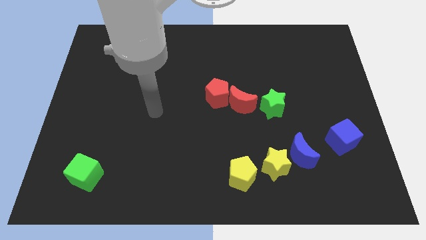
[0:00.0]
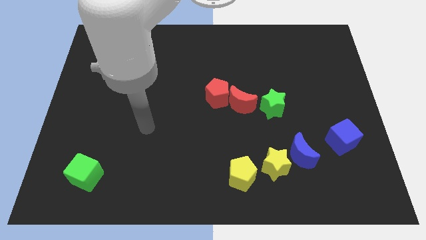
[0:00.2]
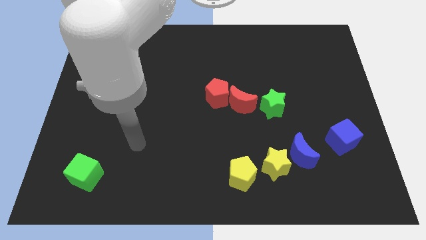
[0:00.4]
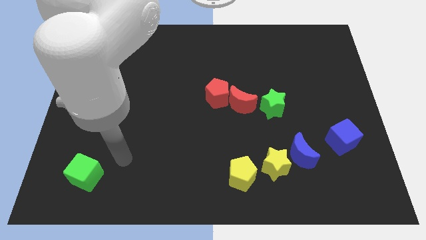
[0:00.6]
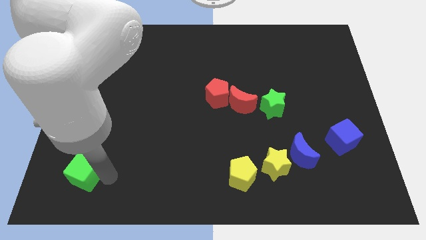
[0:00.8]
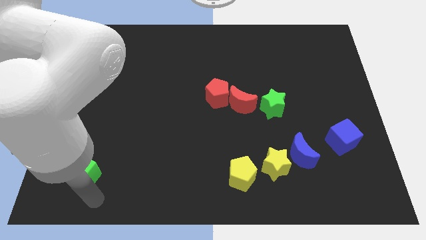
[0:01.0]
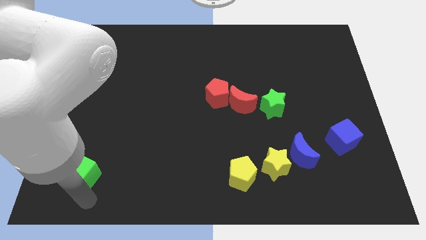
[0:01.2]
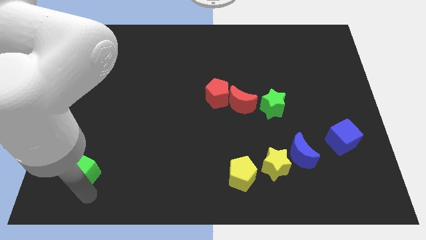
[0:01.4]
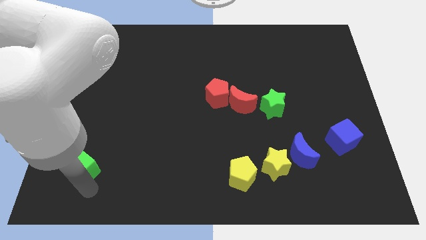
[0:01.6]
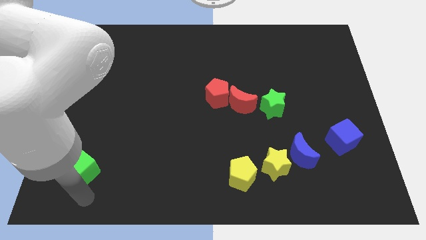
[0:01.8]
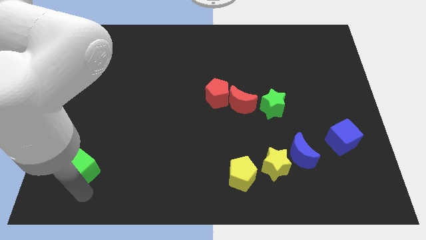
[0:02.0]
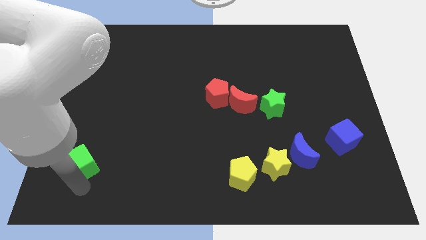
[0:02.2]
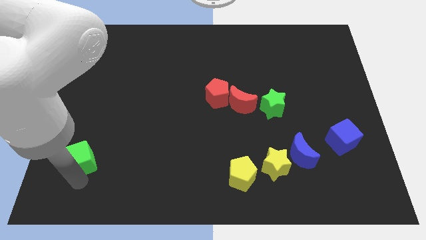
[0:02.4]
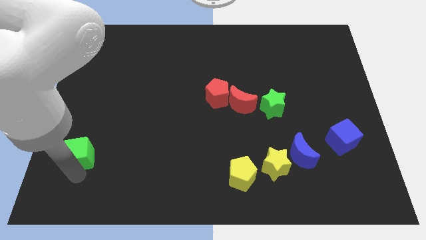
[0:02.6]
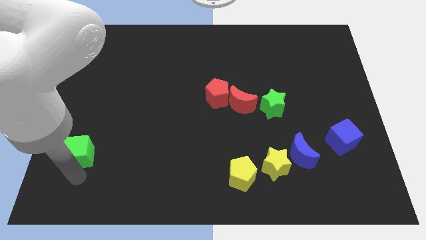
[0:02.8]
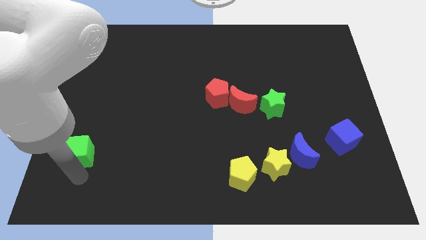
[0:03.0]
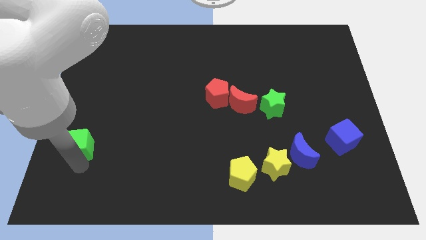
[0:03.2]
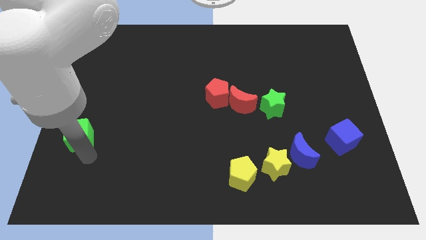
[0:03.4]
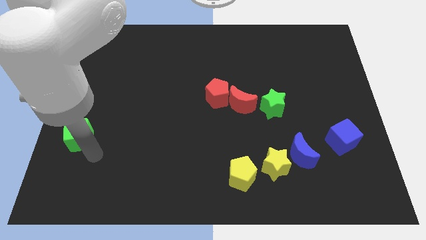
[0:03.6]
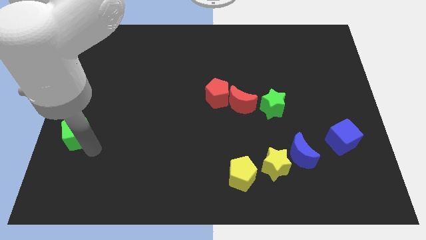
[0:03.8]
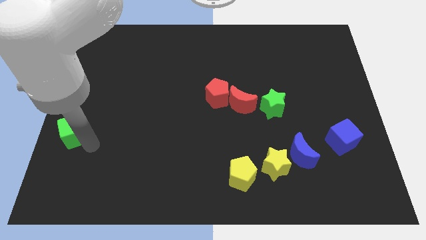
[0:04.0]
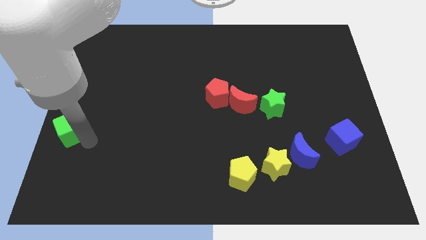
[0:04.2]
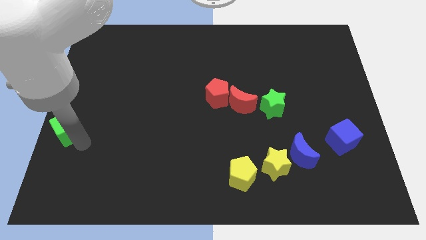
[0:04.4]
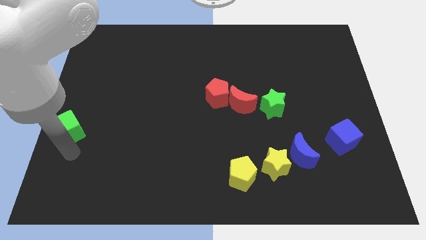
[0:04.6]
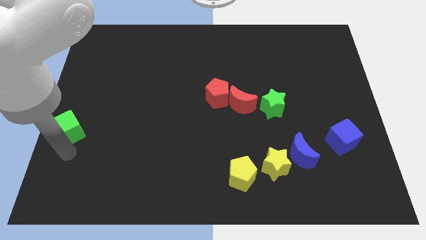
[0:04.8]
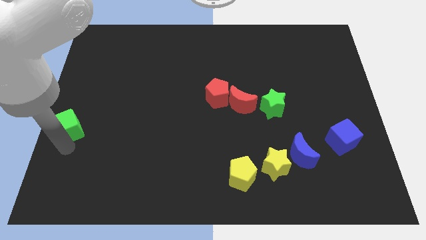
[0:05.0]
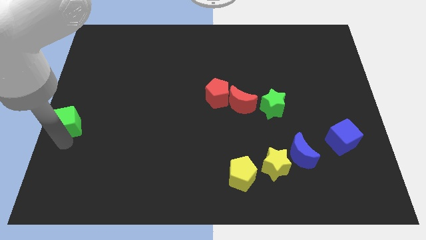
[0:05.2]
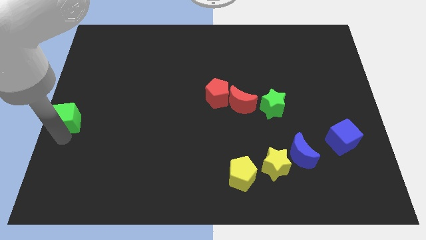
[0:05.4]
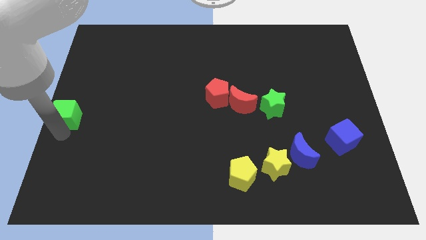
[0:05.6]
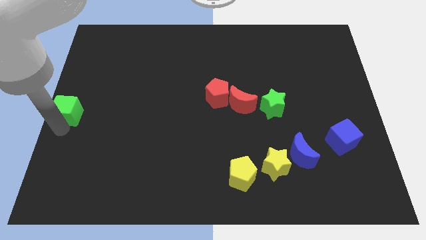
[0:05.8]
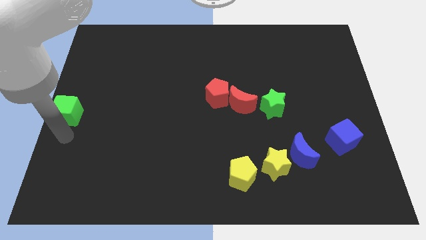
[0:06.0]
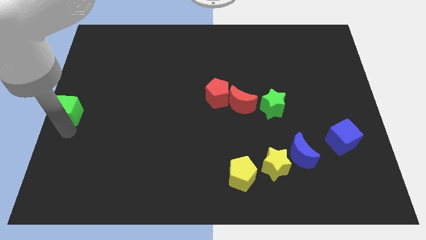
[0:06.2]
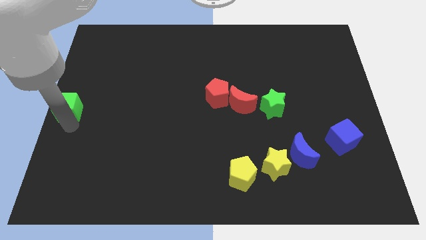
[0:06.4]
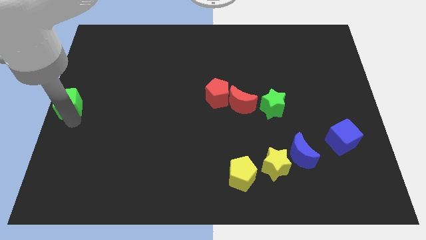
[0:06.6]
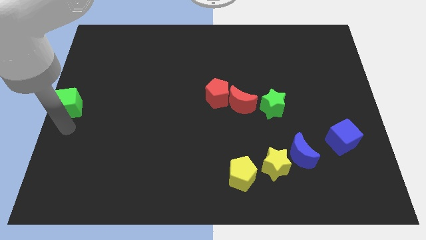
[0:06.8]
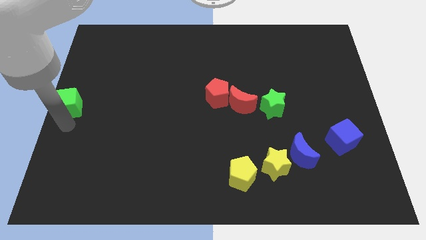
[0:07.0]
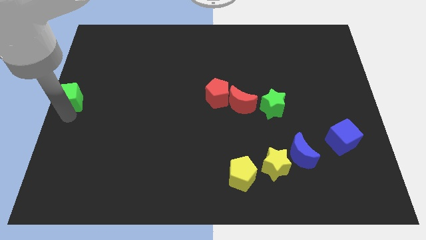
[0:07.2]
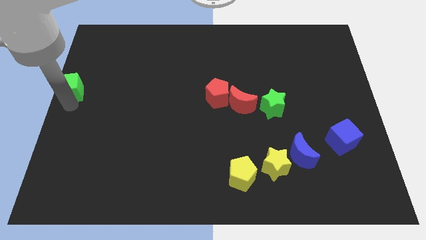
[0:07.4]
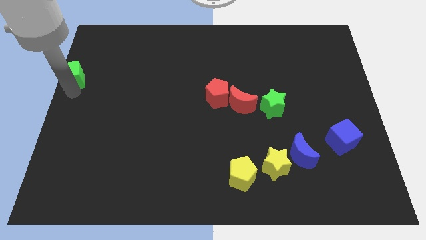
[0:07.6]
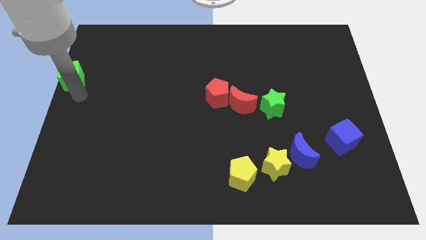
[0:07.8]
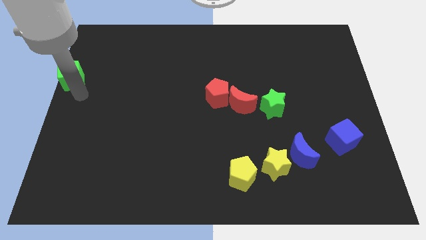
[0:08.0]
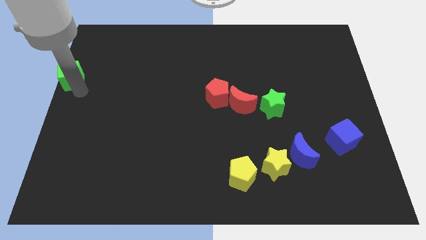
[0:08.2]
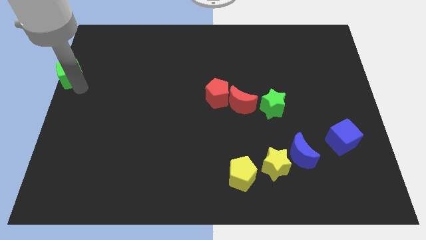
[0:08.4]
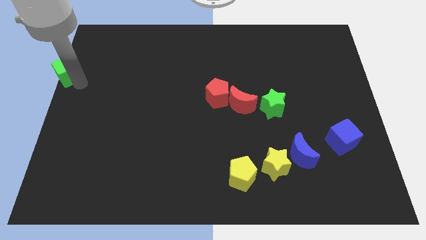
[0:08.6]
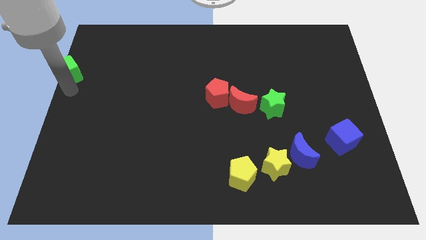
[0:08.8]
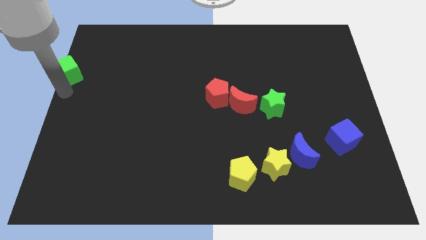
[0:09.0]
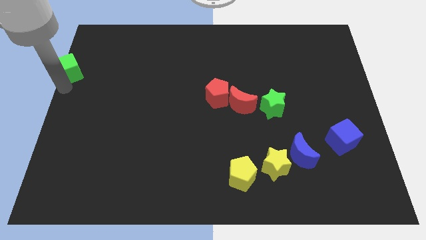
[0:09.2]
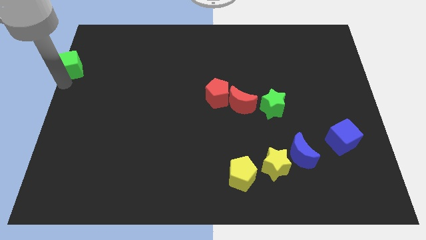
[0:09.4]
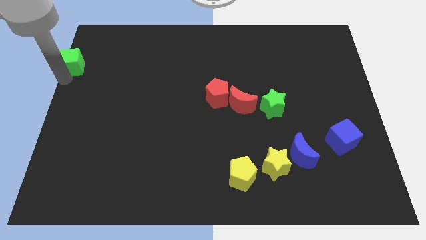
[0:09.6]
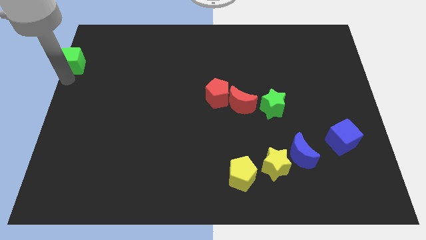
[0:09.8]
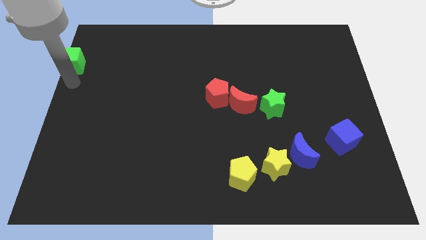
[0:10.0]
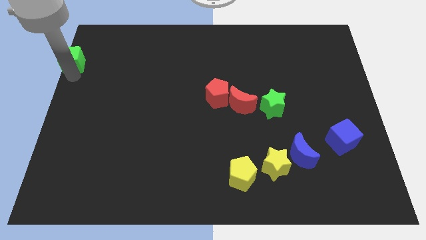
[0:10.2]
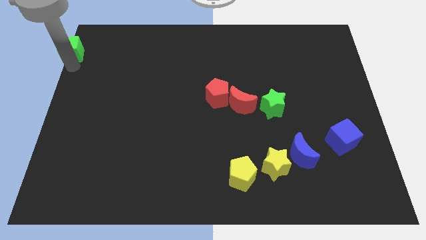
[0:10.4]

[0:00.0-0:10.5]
slide the green cube to the top left

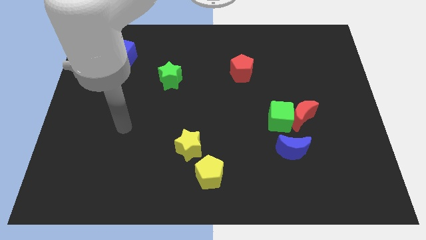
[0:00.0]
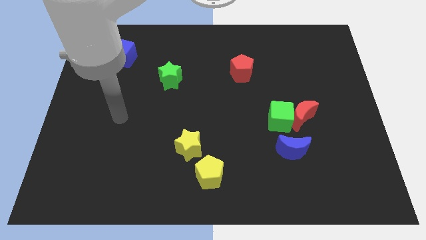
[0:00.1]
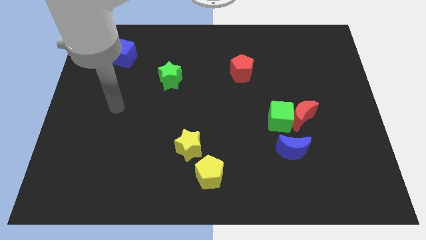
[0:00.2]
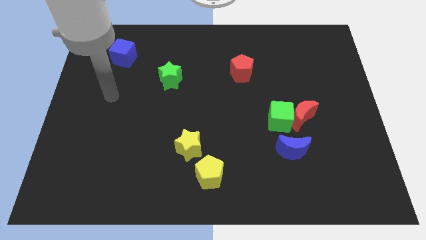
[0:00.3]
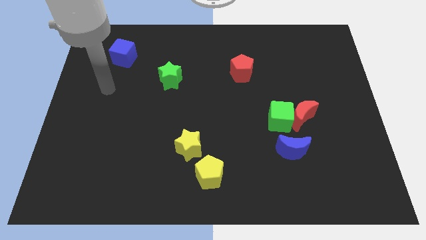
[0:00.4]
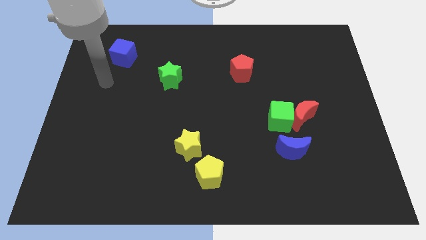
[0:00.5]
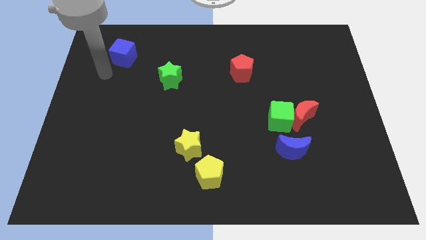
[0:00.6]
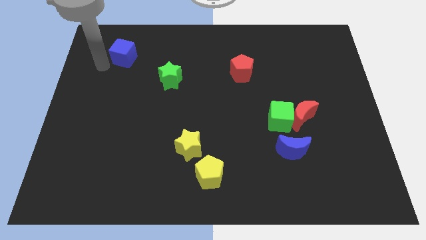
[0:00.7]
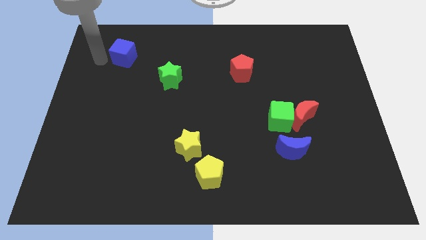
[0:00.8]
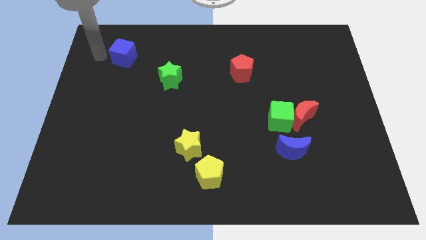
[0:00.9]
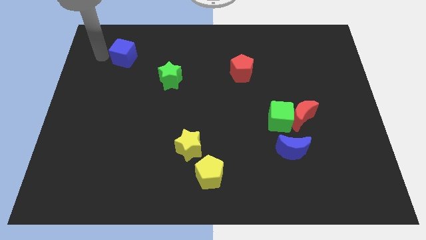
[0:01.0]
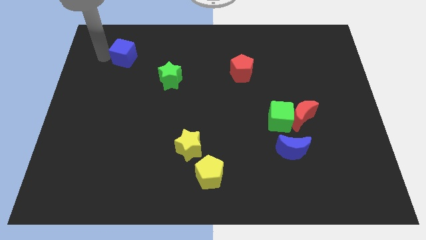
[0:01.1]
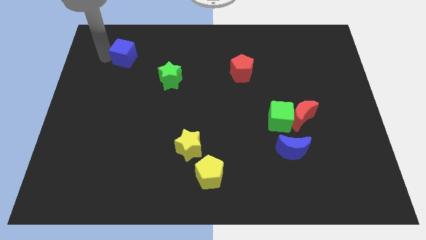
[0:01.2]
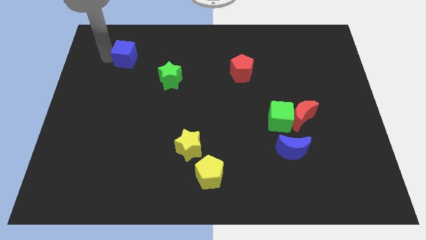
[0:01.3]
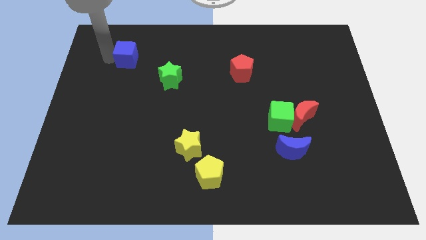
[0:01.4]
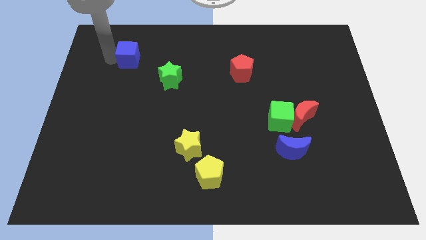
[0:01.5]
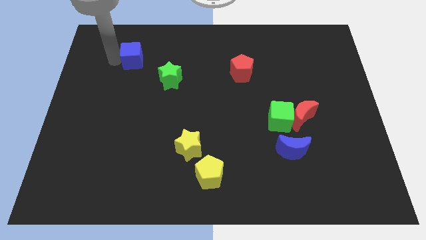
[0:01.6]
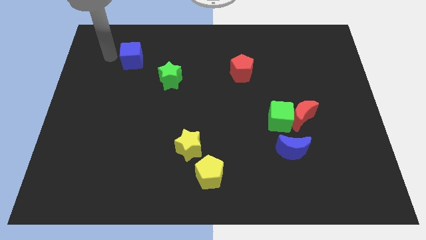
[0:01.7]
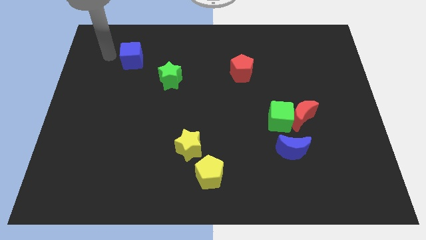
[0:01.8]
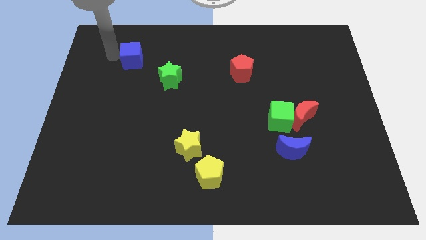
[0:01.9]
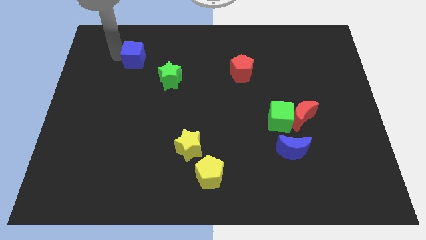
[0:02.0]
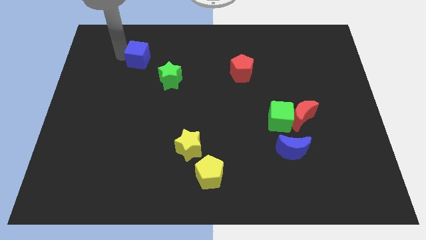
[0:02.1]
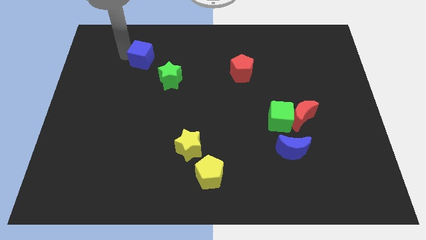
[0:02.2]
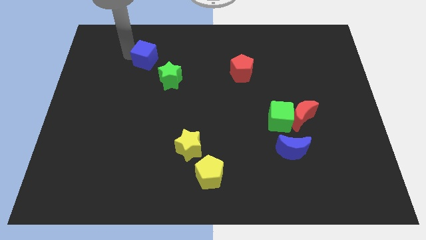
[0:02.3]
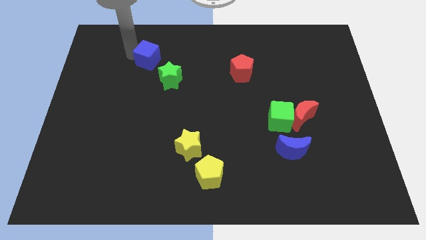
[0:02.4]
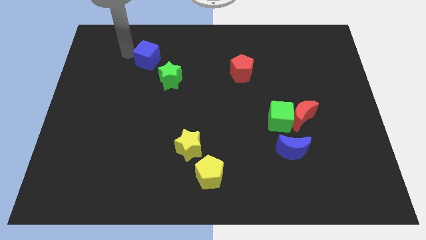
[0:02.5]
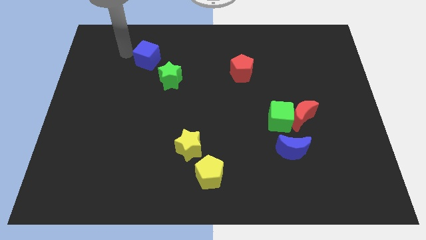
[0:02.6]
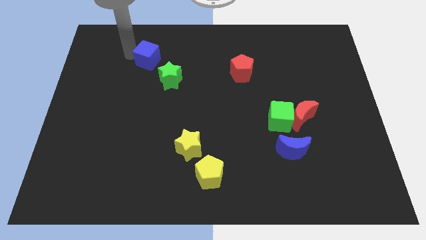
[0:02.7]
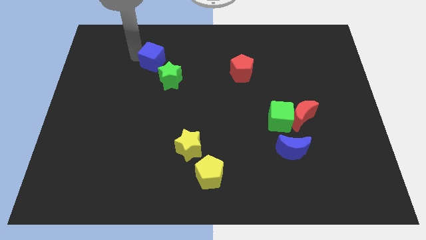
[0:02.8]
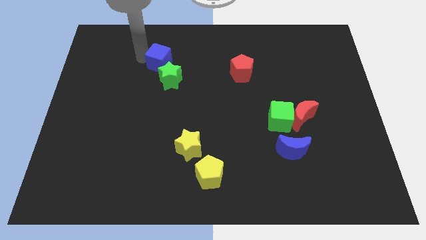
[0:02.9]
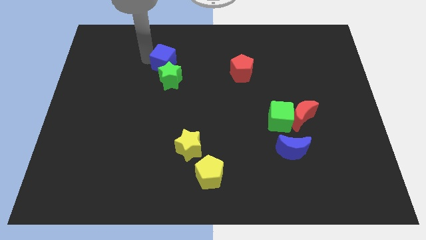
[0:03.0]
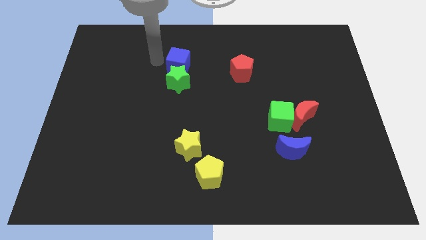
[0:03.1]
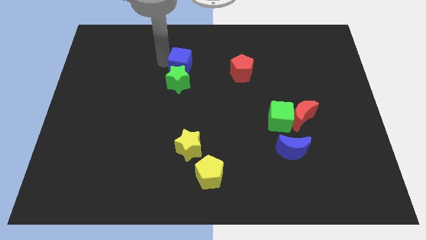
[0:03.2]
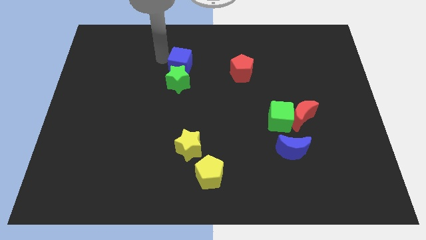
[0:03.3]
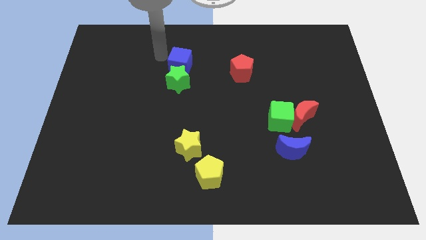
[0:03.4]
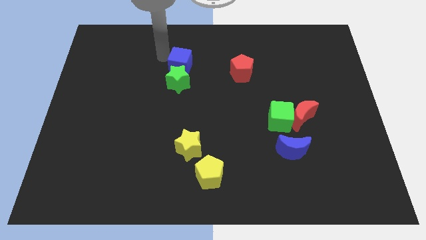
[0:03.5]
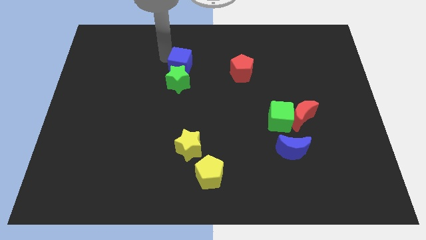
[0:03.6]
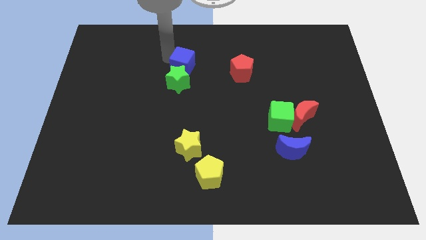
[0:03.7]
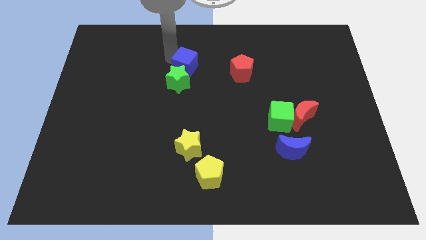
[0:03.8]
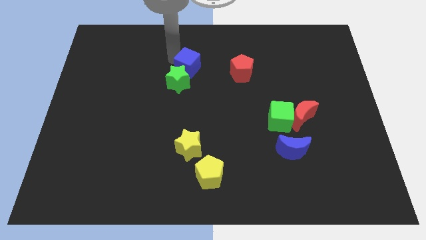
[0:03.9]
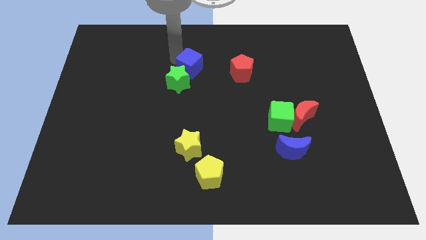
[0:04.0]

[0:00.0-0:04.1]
put the blue cube to the middle of the board
